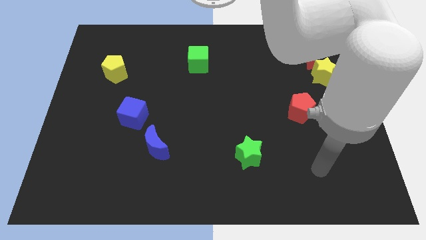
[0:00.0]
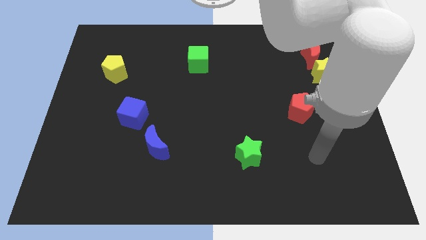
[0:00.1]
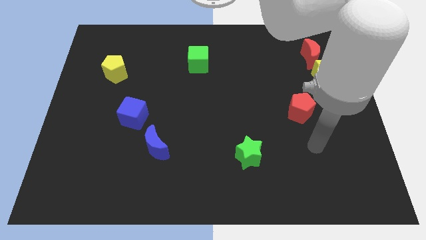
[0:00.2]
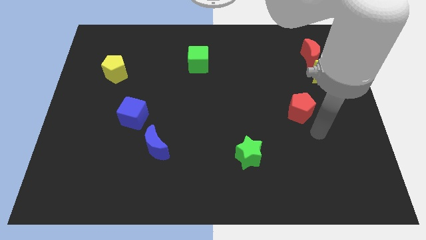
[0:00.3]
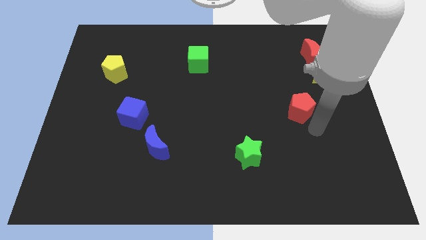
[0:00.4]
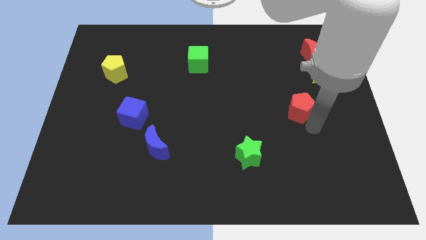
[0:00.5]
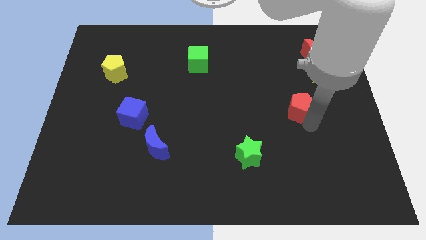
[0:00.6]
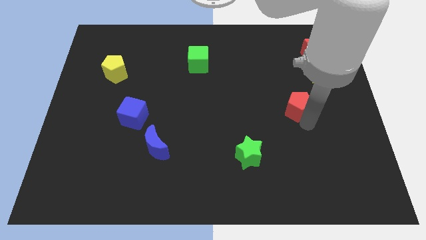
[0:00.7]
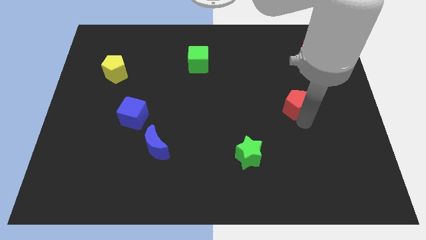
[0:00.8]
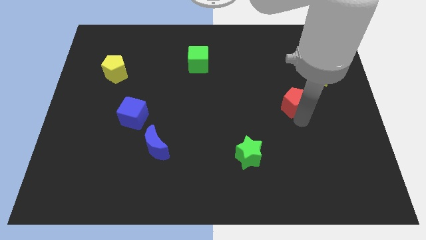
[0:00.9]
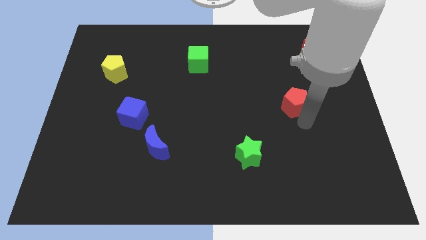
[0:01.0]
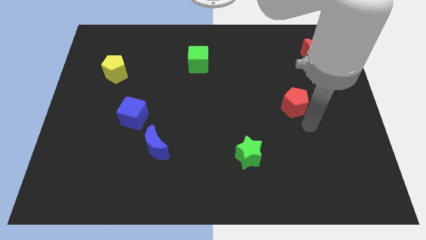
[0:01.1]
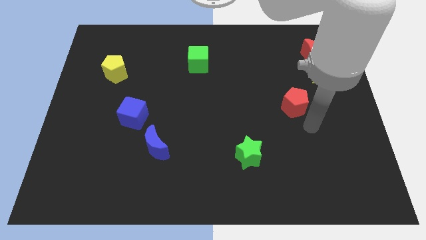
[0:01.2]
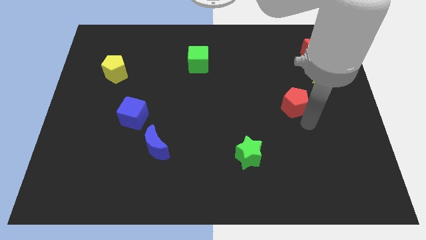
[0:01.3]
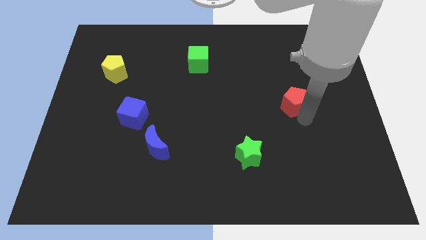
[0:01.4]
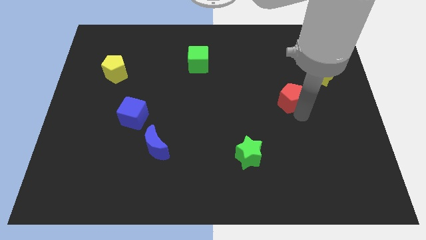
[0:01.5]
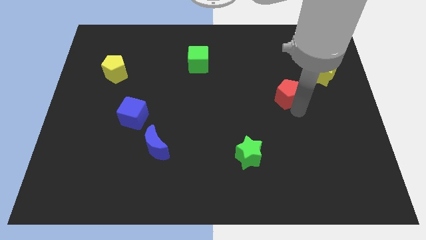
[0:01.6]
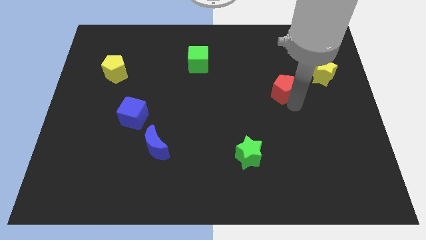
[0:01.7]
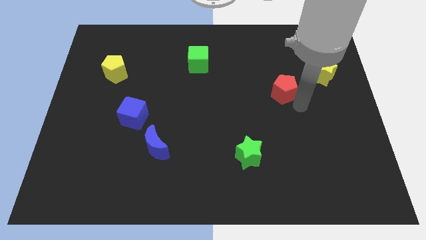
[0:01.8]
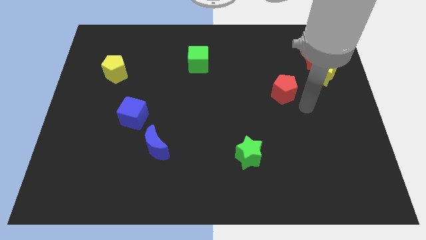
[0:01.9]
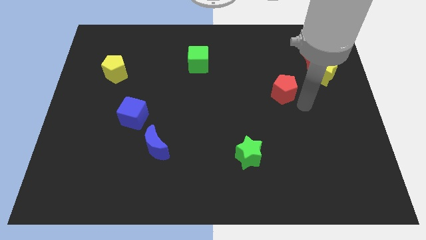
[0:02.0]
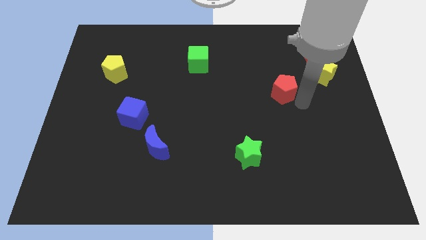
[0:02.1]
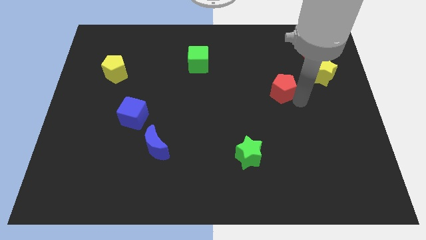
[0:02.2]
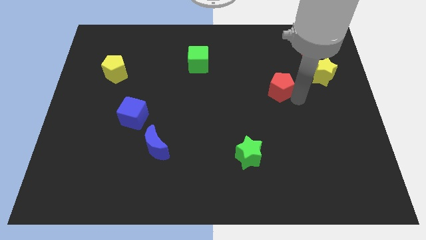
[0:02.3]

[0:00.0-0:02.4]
slightly slide the red pentagon up and then left

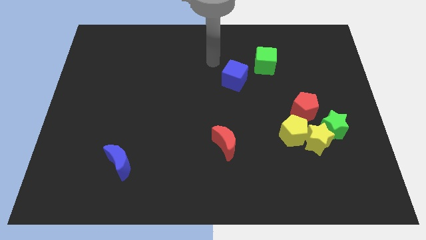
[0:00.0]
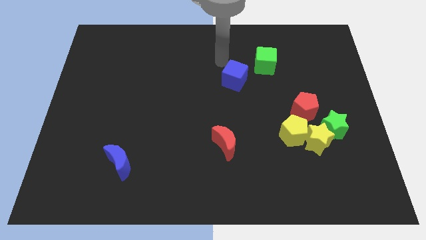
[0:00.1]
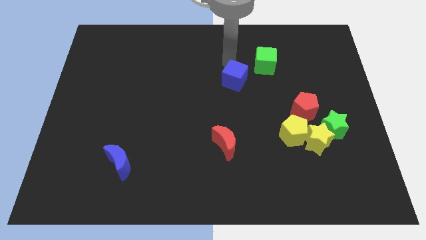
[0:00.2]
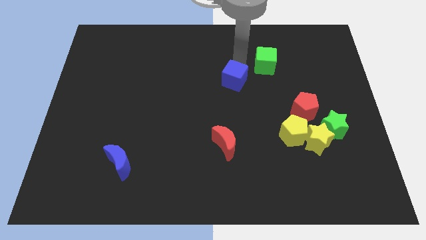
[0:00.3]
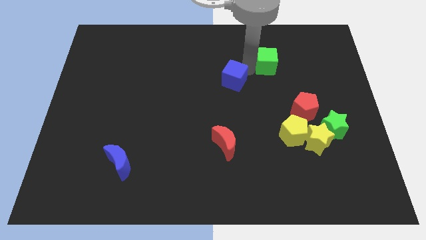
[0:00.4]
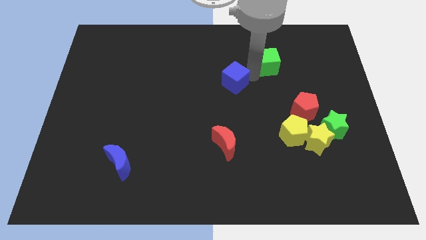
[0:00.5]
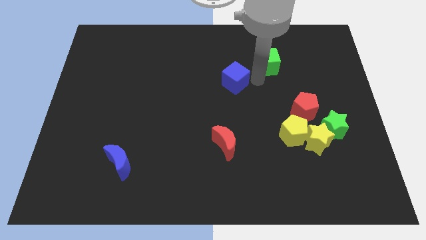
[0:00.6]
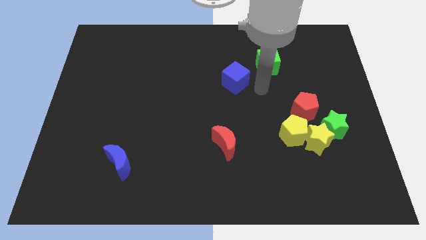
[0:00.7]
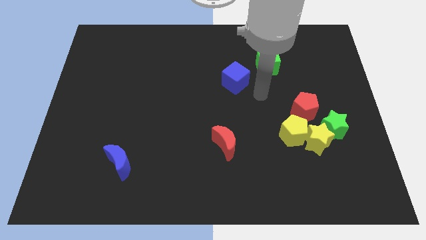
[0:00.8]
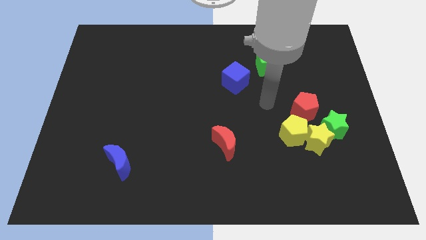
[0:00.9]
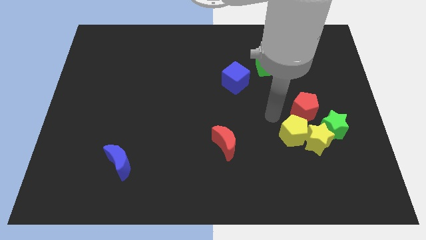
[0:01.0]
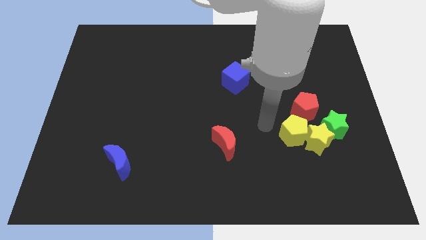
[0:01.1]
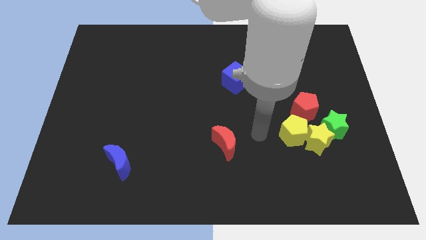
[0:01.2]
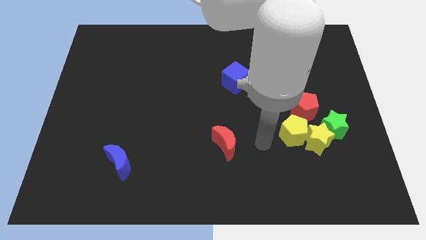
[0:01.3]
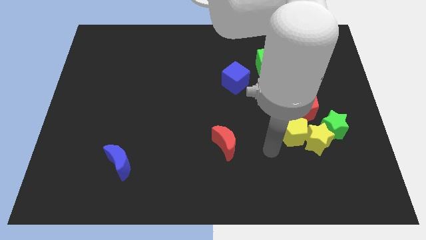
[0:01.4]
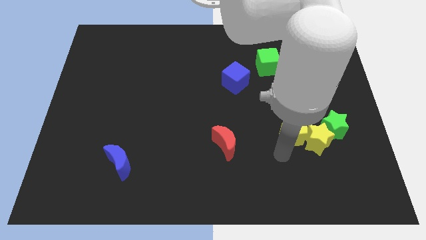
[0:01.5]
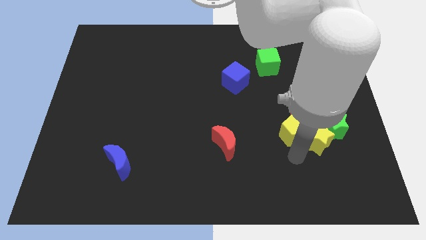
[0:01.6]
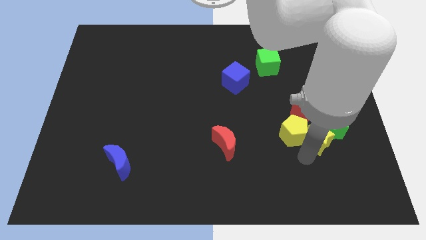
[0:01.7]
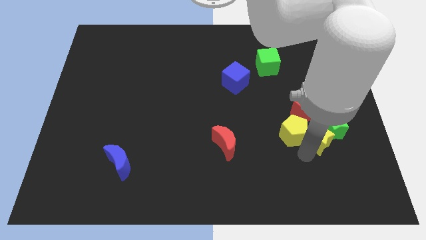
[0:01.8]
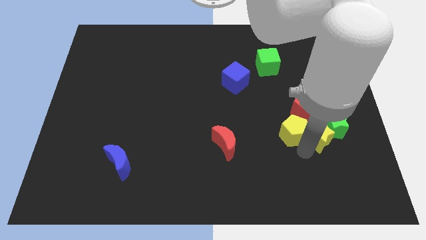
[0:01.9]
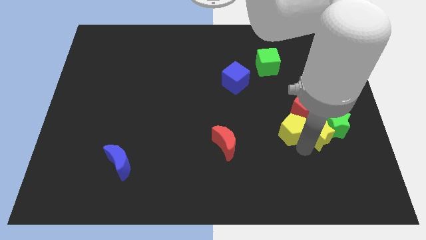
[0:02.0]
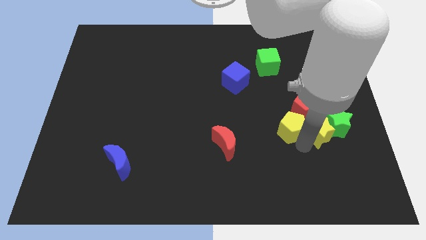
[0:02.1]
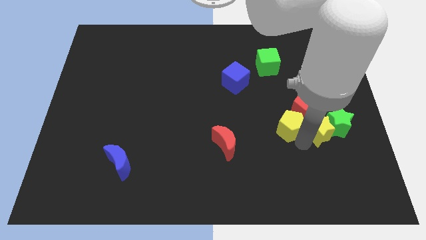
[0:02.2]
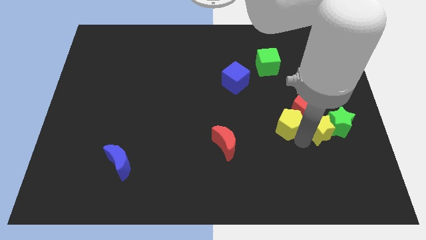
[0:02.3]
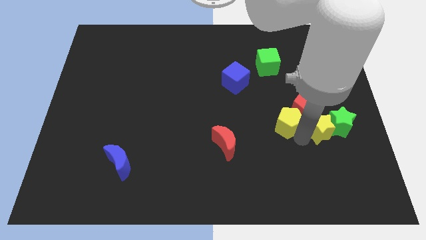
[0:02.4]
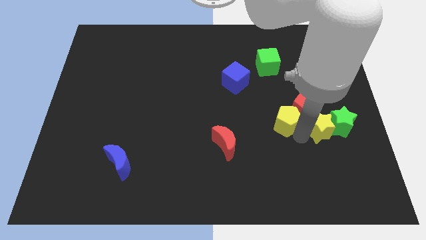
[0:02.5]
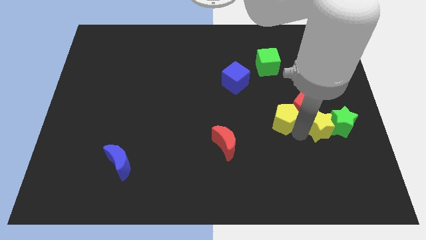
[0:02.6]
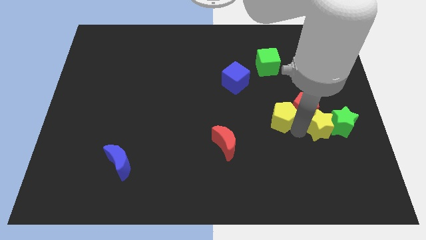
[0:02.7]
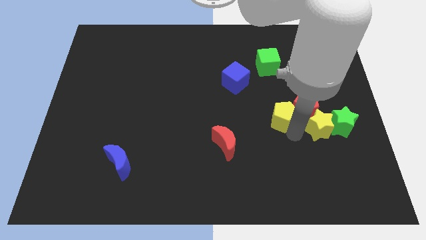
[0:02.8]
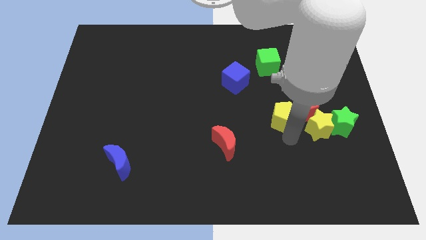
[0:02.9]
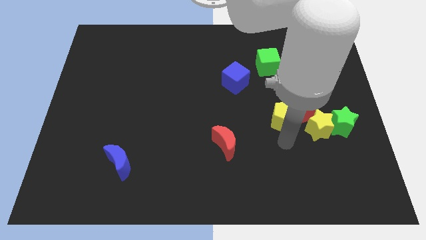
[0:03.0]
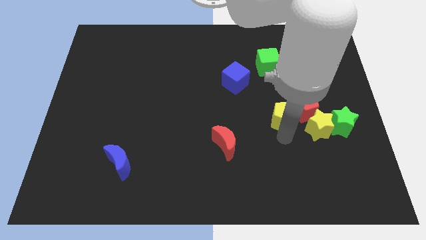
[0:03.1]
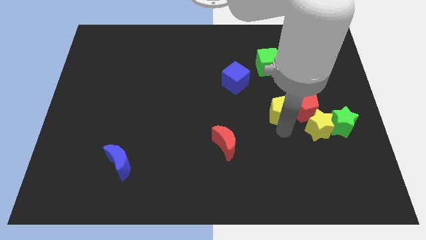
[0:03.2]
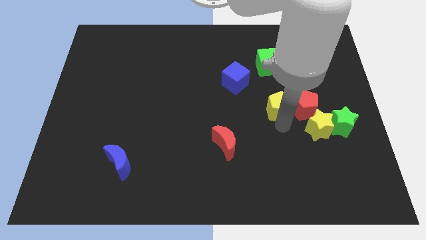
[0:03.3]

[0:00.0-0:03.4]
move the yellow pentagon up a bit

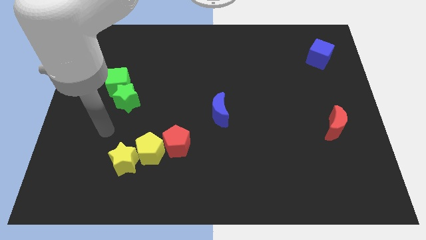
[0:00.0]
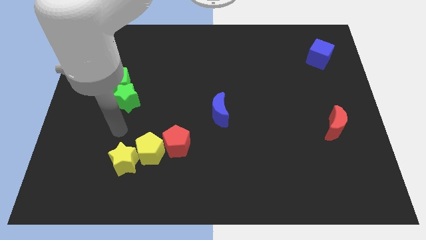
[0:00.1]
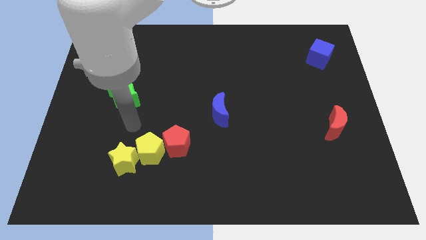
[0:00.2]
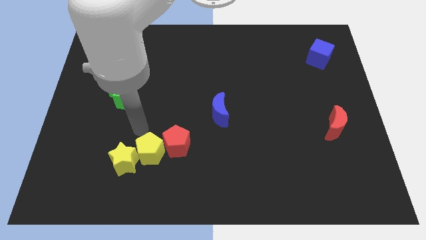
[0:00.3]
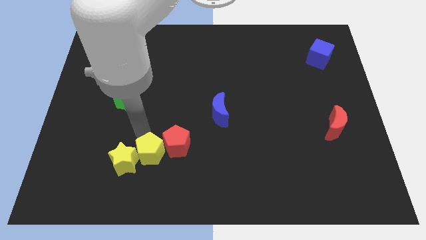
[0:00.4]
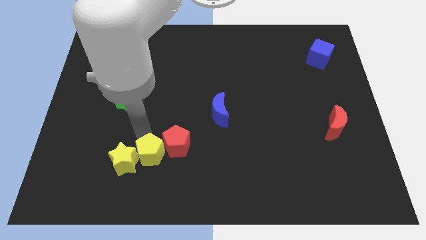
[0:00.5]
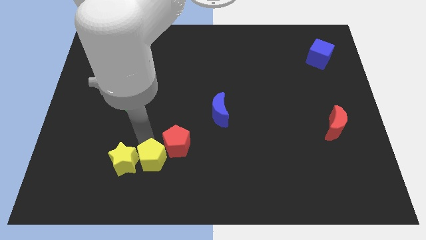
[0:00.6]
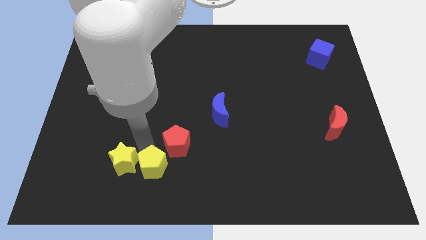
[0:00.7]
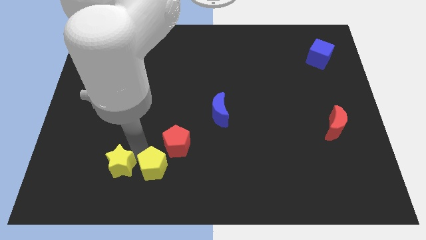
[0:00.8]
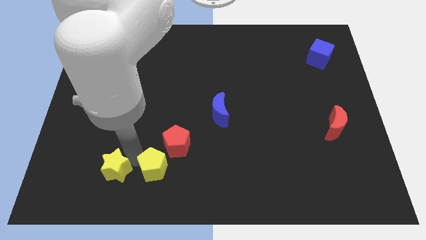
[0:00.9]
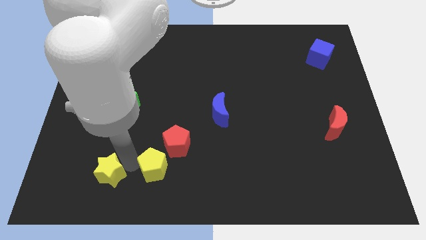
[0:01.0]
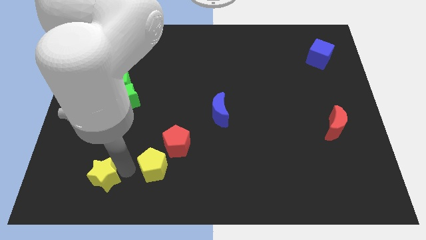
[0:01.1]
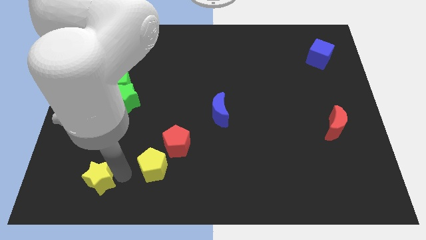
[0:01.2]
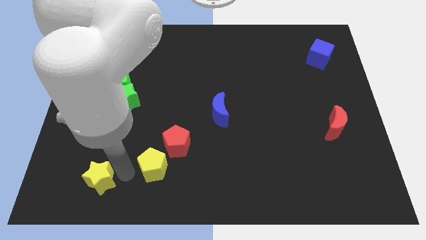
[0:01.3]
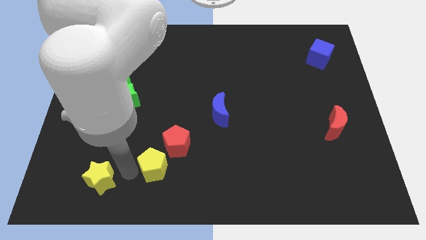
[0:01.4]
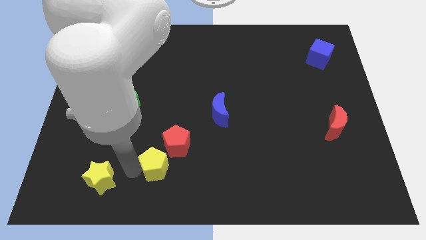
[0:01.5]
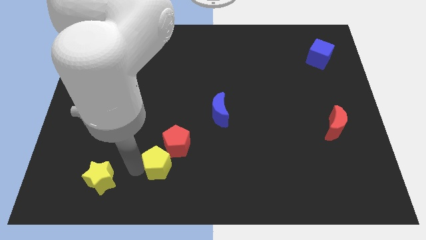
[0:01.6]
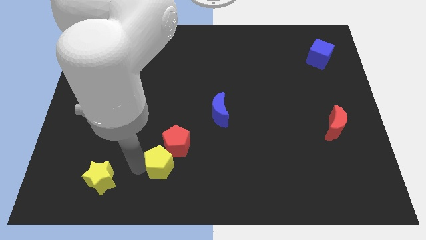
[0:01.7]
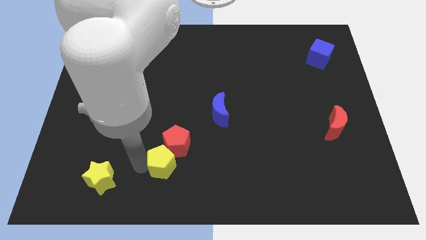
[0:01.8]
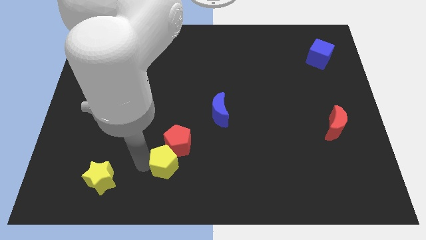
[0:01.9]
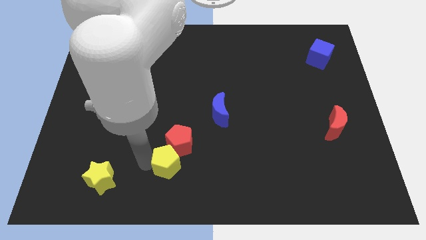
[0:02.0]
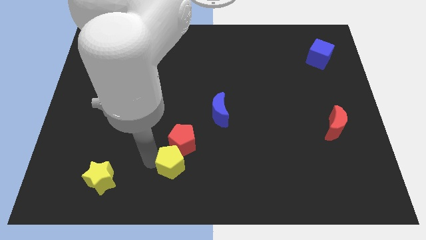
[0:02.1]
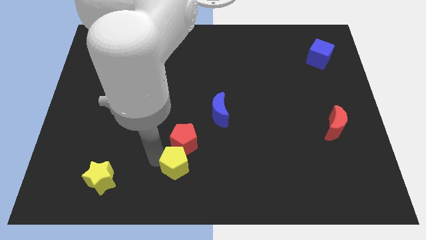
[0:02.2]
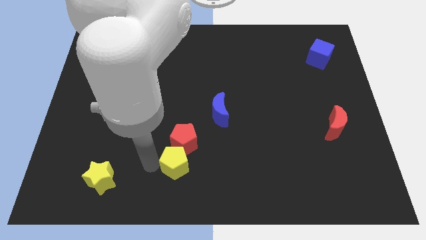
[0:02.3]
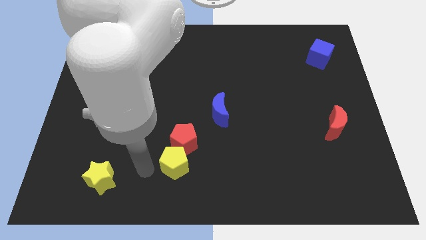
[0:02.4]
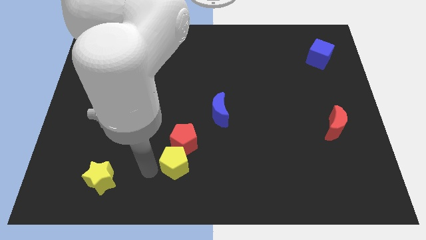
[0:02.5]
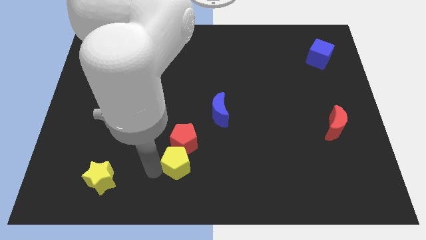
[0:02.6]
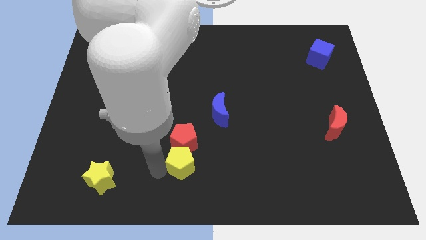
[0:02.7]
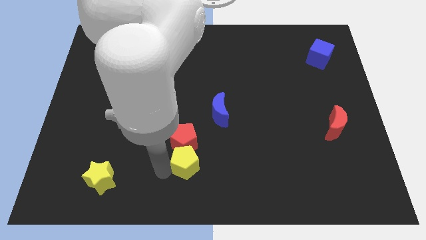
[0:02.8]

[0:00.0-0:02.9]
move the yellow pentagon right a bit
